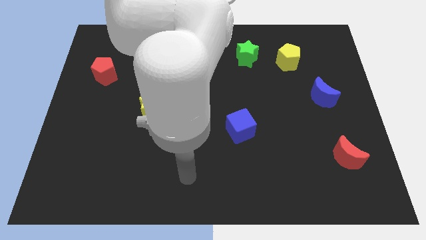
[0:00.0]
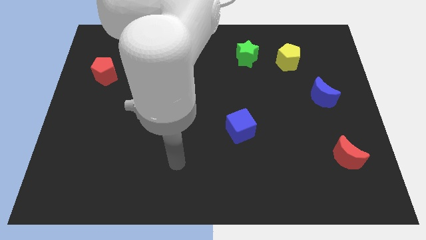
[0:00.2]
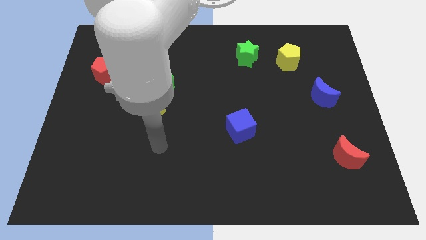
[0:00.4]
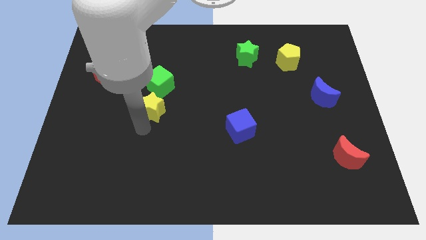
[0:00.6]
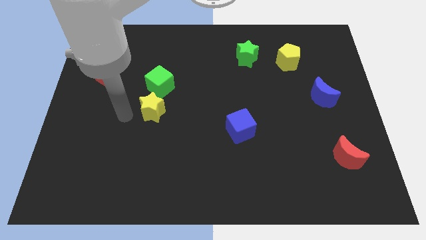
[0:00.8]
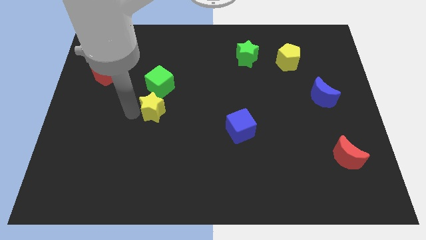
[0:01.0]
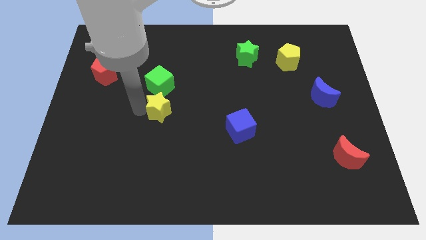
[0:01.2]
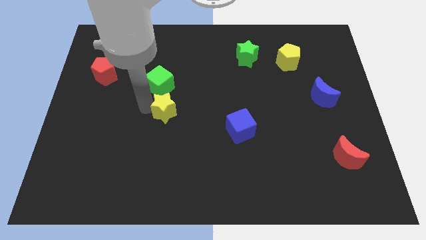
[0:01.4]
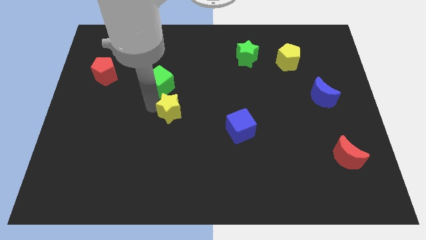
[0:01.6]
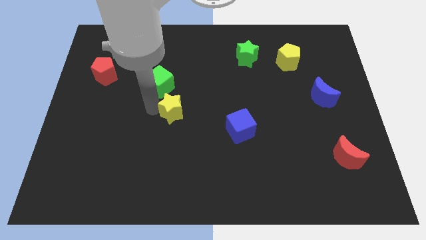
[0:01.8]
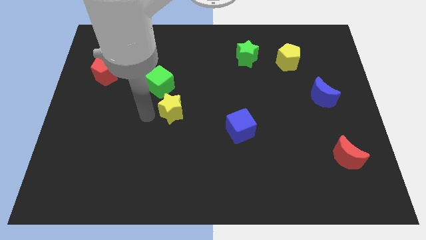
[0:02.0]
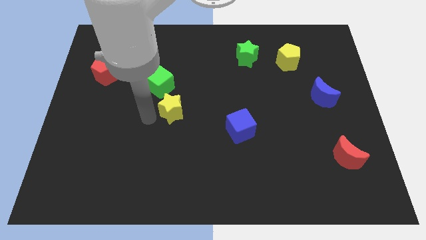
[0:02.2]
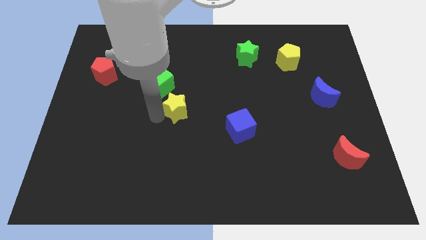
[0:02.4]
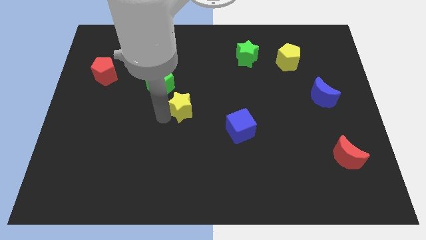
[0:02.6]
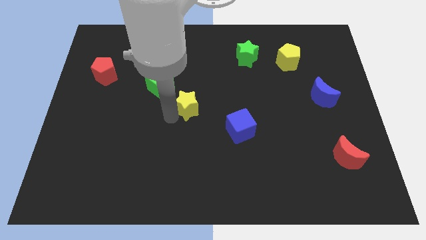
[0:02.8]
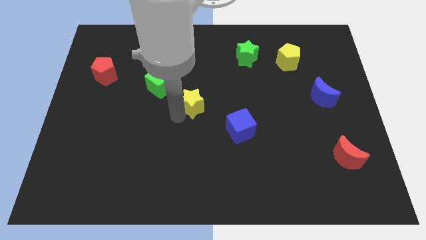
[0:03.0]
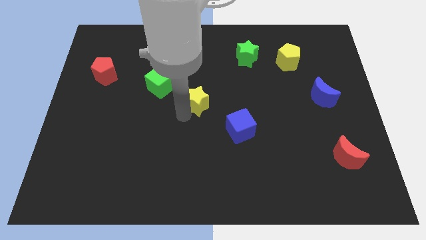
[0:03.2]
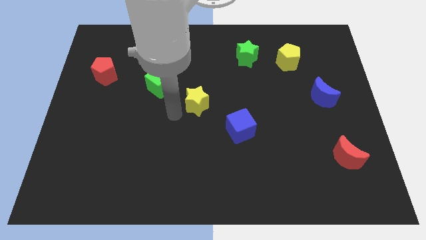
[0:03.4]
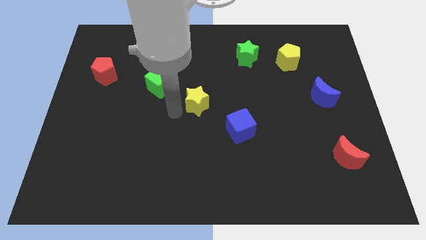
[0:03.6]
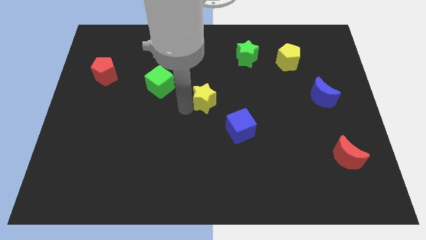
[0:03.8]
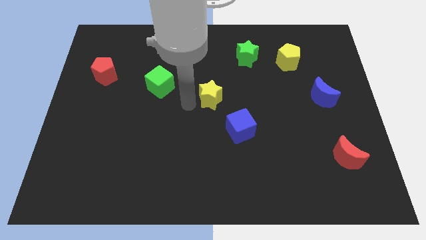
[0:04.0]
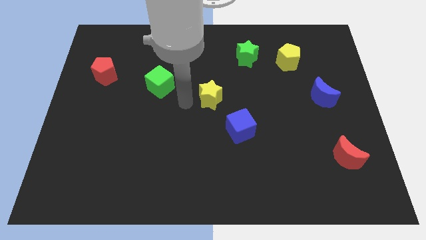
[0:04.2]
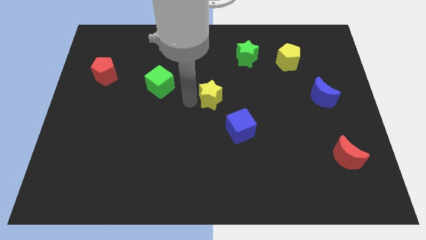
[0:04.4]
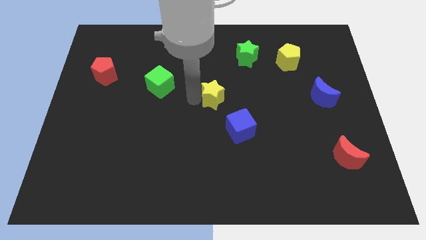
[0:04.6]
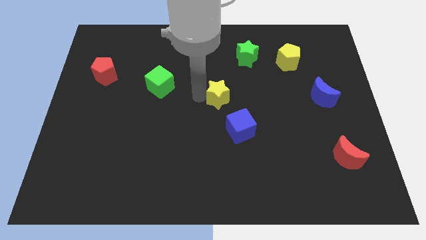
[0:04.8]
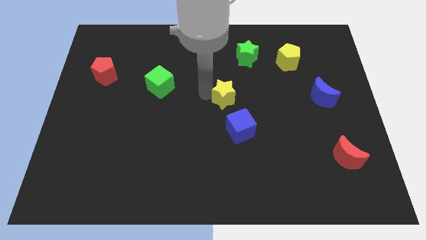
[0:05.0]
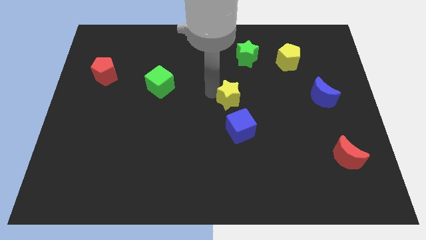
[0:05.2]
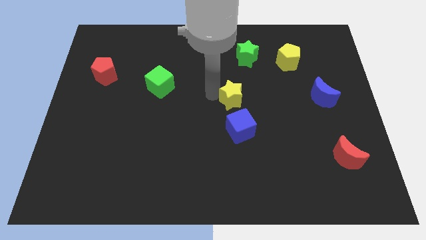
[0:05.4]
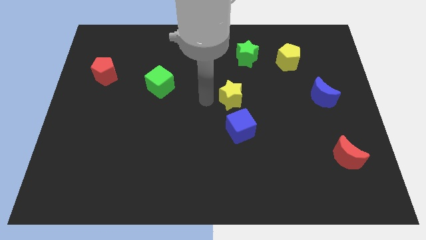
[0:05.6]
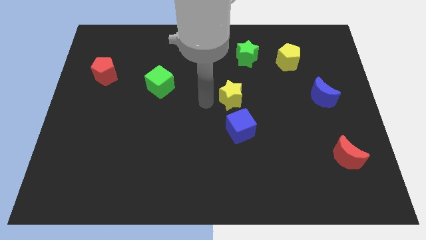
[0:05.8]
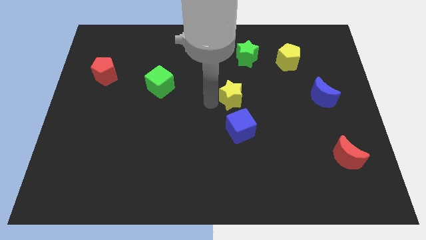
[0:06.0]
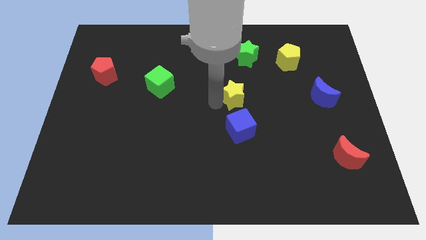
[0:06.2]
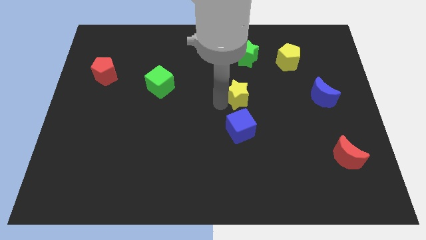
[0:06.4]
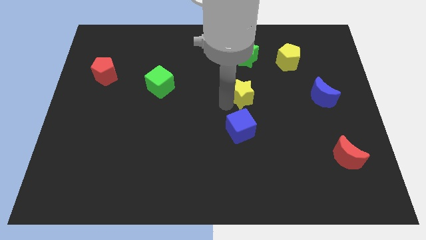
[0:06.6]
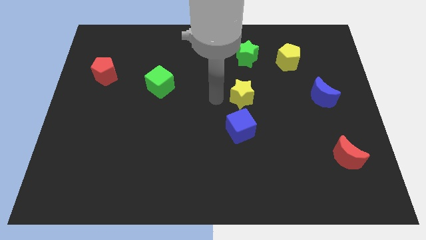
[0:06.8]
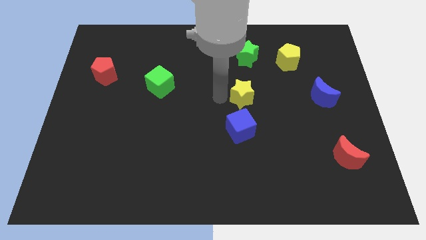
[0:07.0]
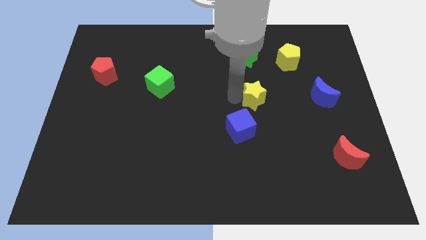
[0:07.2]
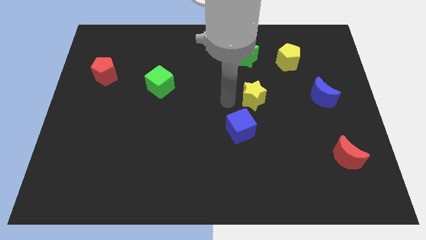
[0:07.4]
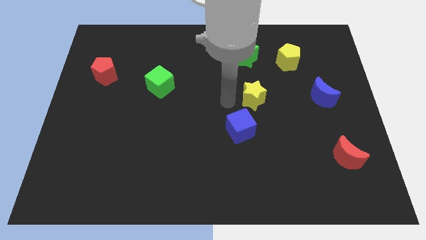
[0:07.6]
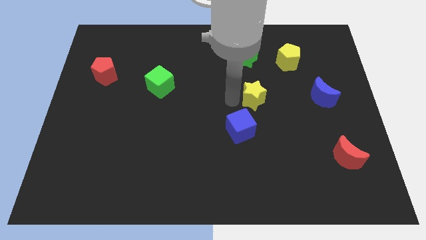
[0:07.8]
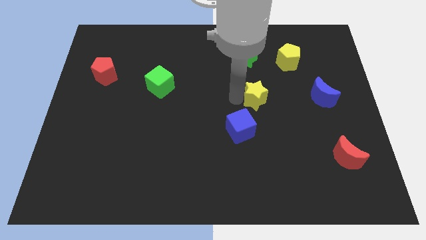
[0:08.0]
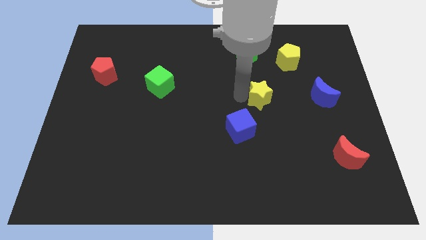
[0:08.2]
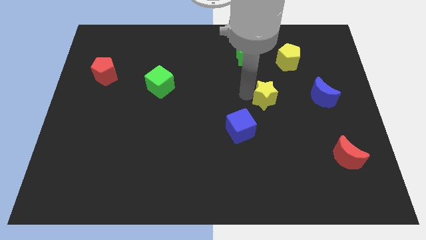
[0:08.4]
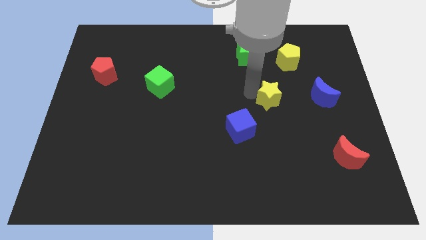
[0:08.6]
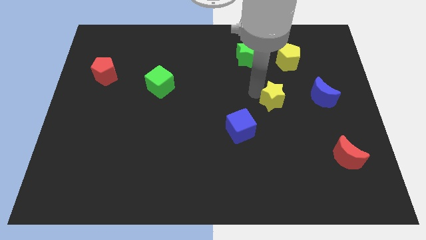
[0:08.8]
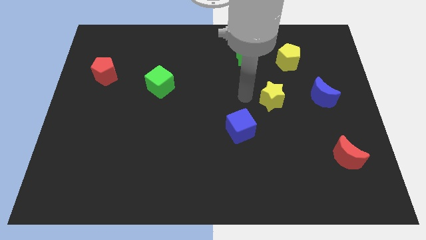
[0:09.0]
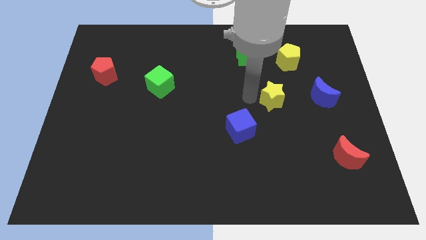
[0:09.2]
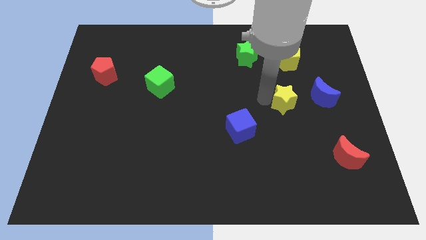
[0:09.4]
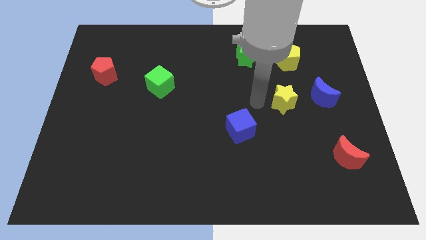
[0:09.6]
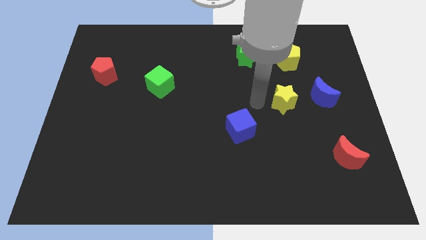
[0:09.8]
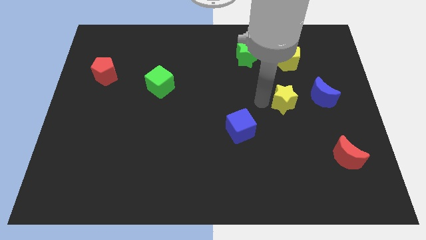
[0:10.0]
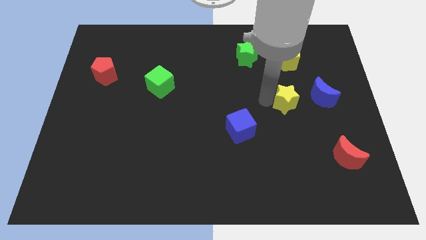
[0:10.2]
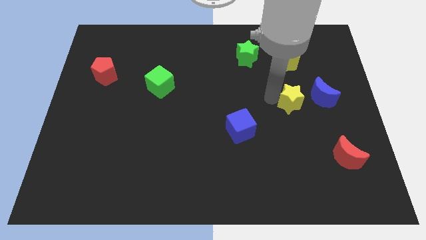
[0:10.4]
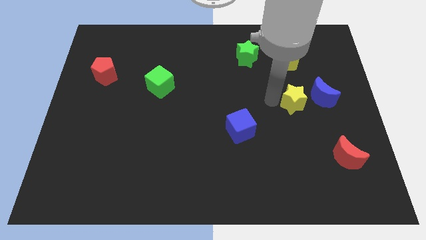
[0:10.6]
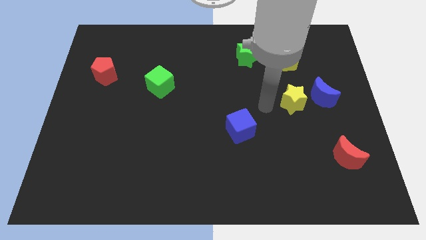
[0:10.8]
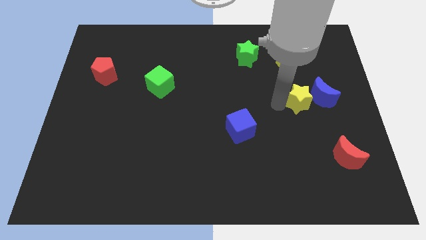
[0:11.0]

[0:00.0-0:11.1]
push the yellow star close to the blue moon
